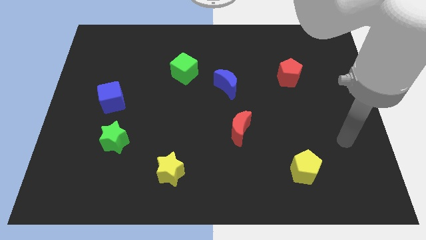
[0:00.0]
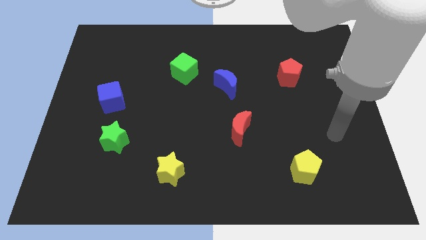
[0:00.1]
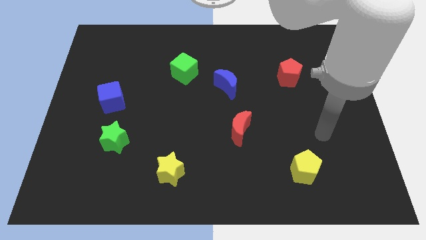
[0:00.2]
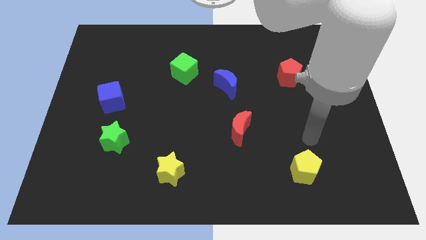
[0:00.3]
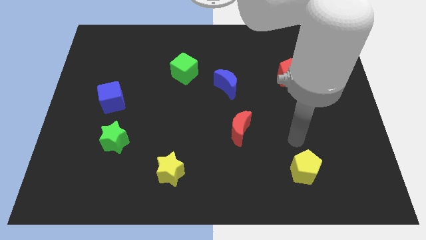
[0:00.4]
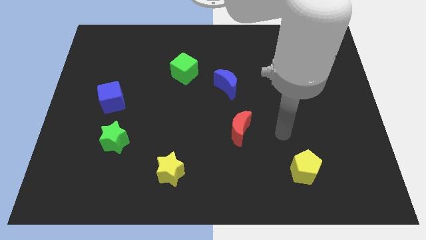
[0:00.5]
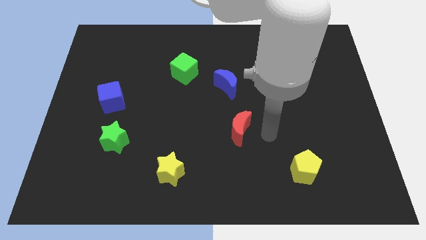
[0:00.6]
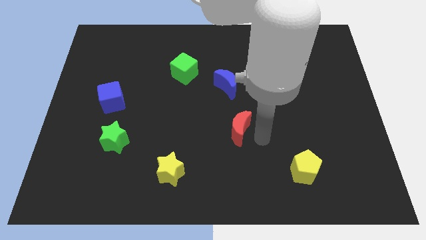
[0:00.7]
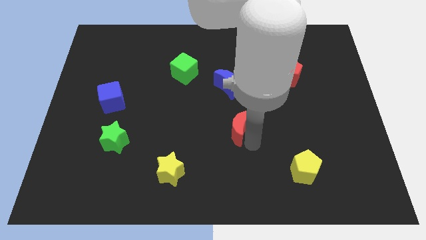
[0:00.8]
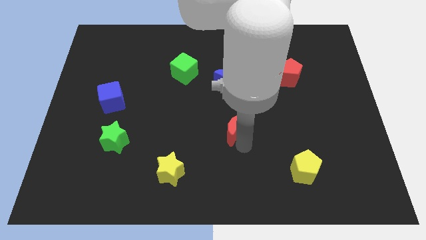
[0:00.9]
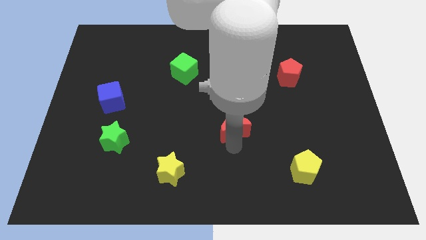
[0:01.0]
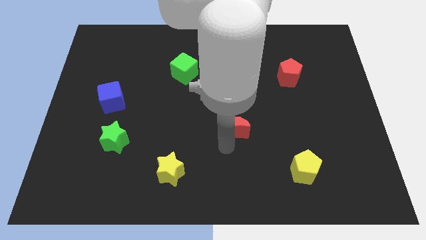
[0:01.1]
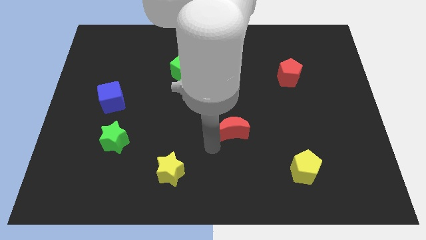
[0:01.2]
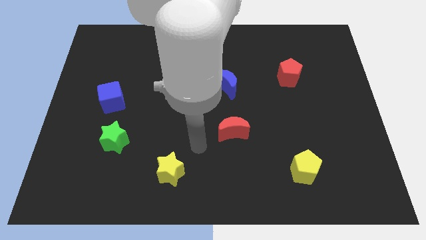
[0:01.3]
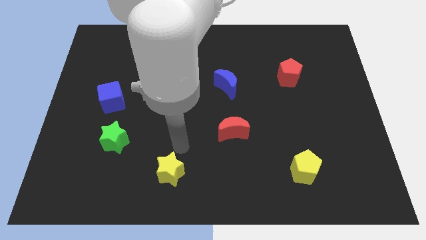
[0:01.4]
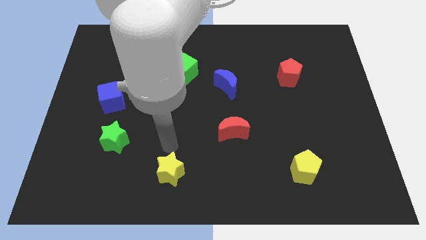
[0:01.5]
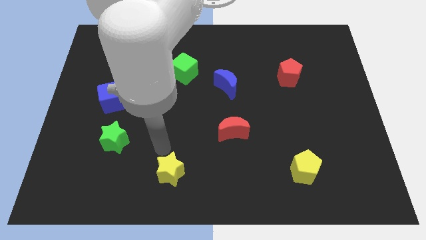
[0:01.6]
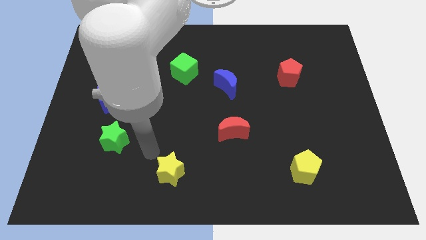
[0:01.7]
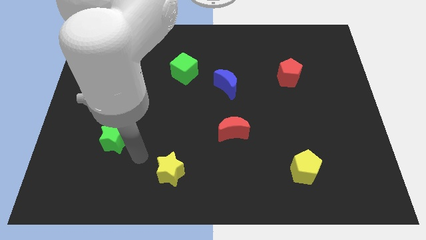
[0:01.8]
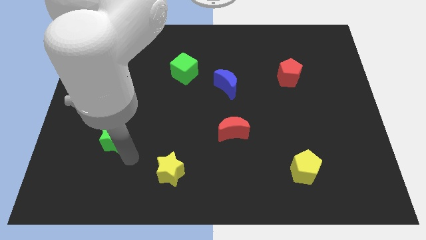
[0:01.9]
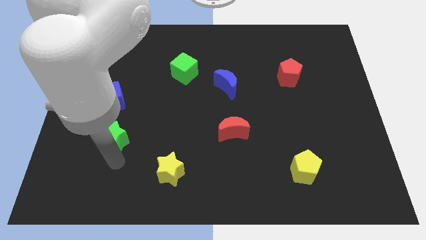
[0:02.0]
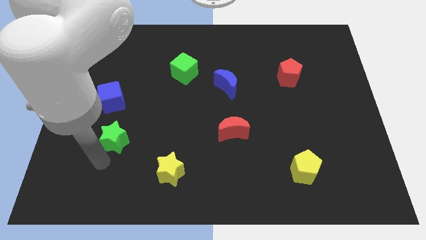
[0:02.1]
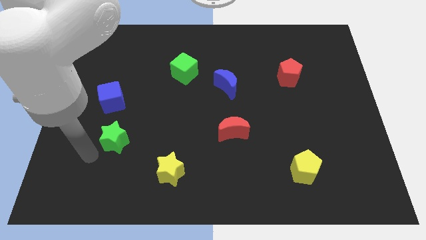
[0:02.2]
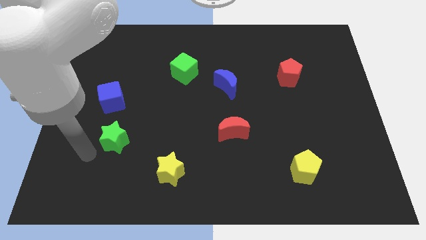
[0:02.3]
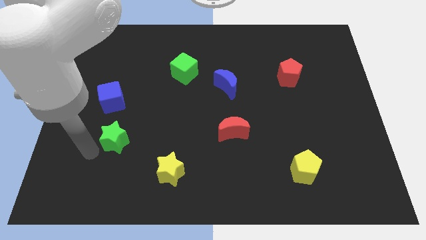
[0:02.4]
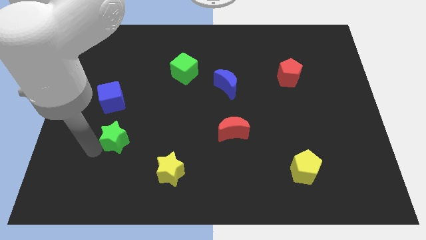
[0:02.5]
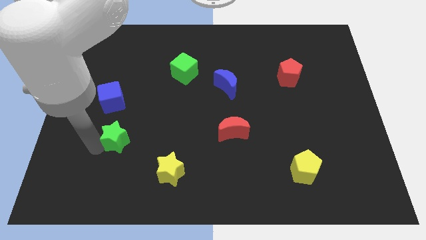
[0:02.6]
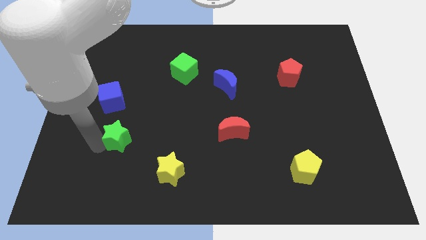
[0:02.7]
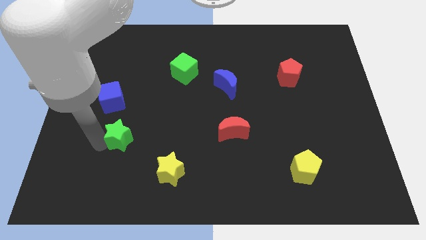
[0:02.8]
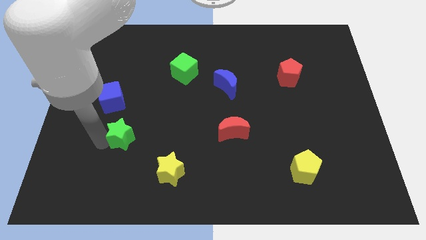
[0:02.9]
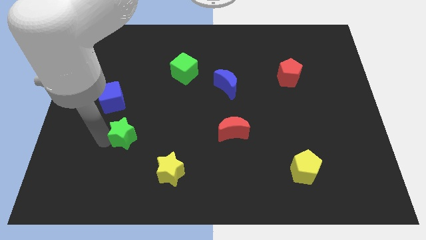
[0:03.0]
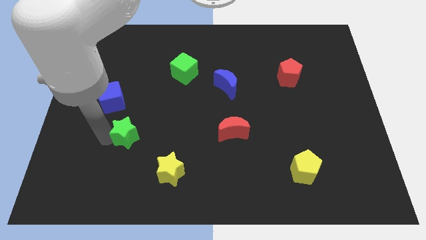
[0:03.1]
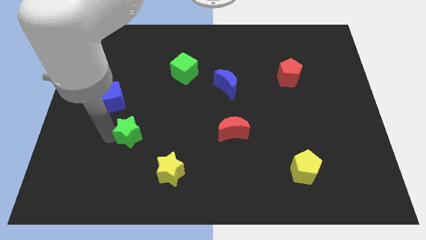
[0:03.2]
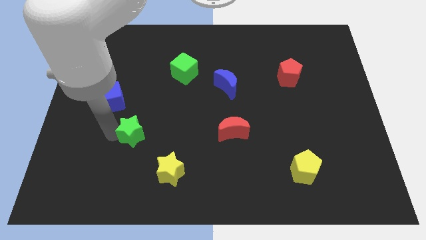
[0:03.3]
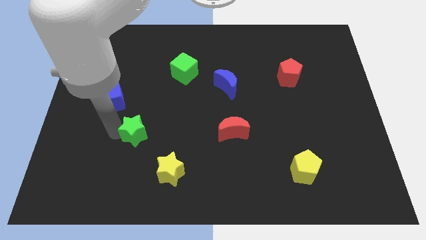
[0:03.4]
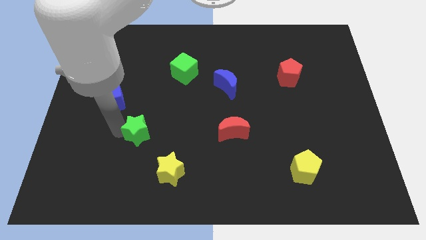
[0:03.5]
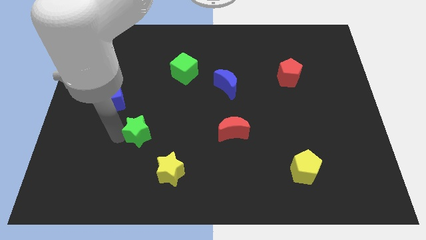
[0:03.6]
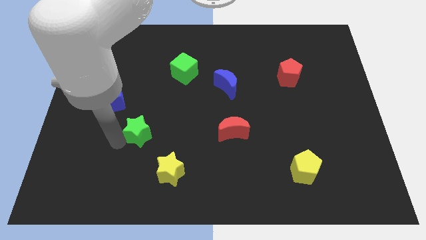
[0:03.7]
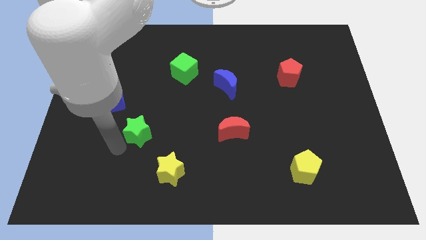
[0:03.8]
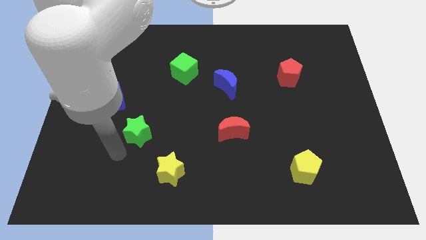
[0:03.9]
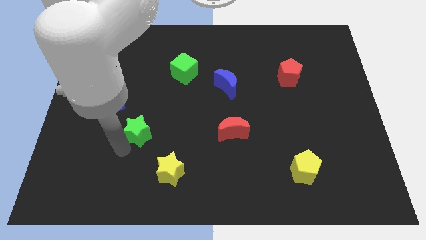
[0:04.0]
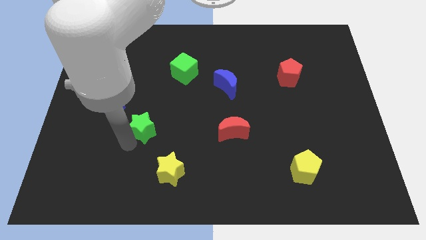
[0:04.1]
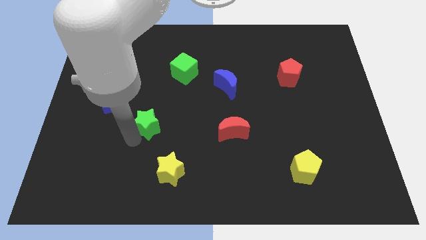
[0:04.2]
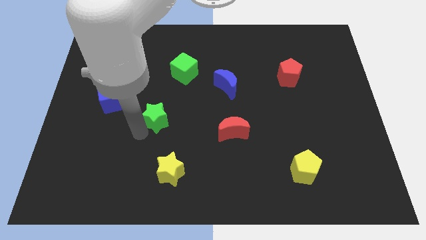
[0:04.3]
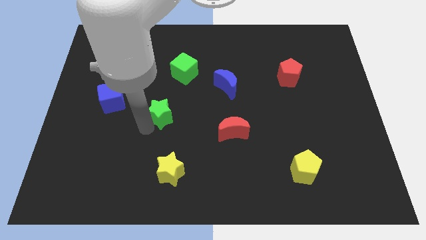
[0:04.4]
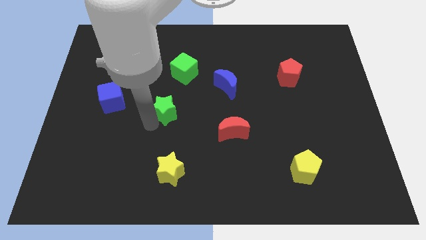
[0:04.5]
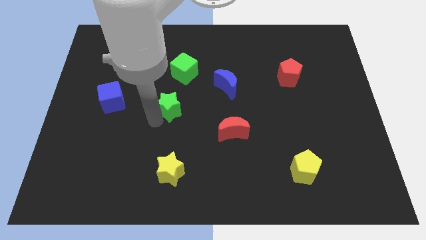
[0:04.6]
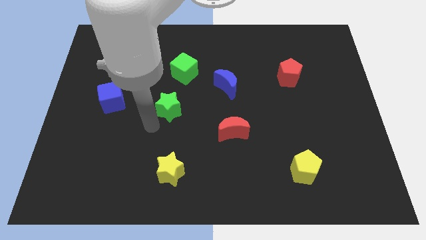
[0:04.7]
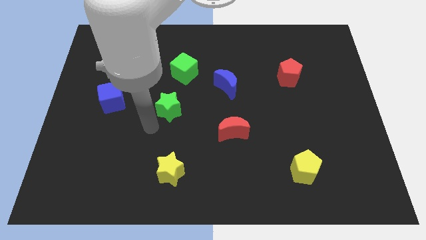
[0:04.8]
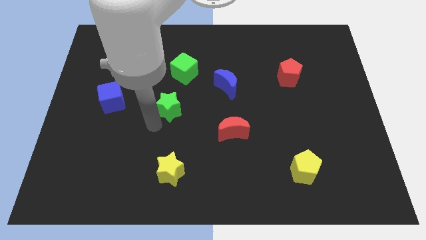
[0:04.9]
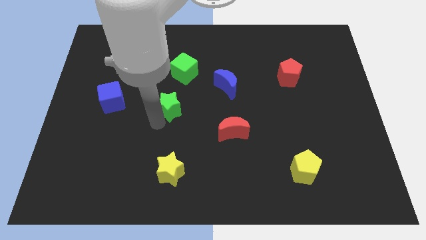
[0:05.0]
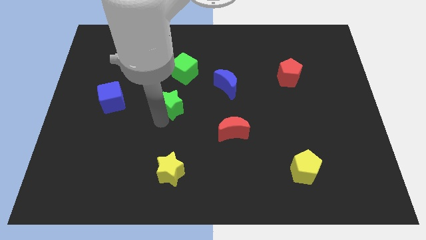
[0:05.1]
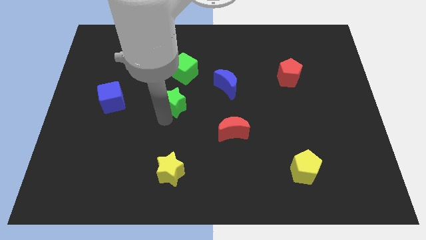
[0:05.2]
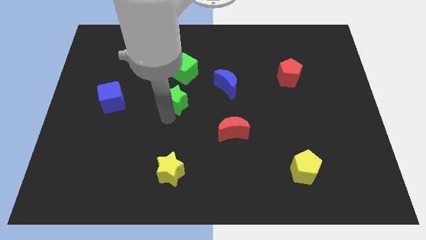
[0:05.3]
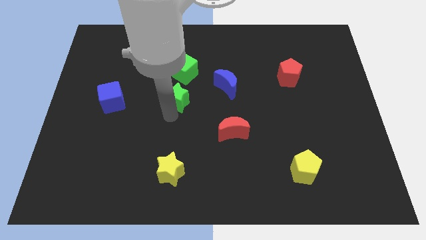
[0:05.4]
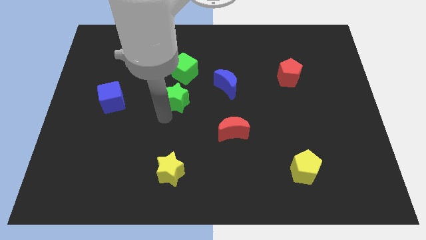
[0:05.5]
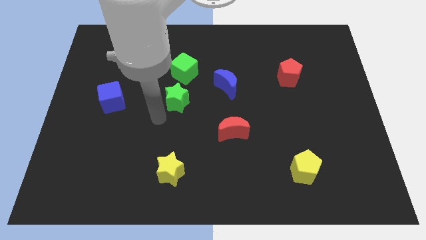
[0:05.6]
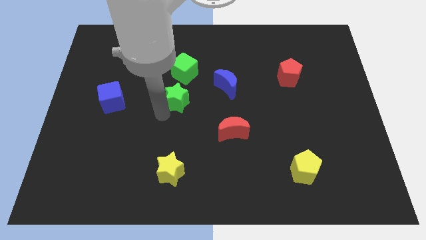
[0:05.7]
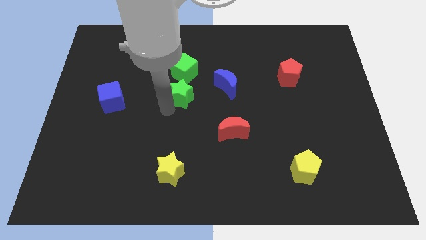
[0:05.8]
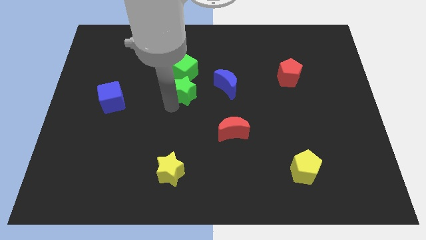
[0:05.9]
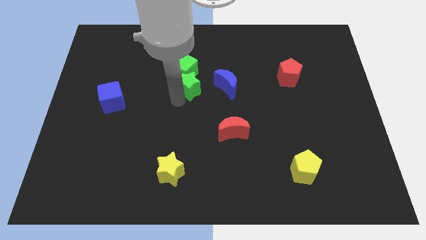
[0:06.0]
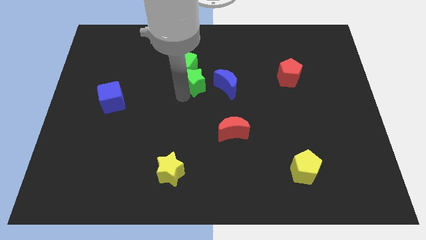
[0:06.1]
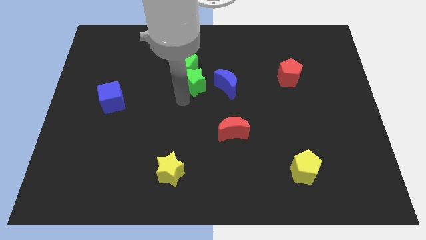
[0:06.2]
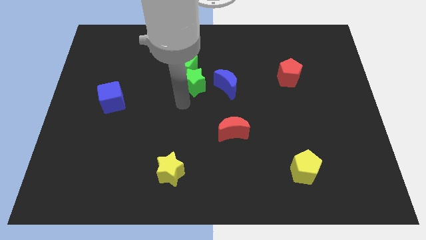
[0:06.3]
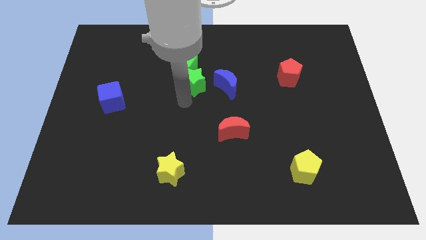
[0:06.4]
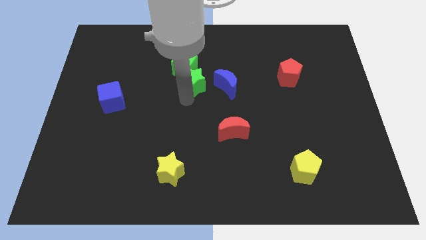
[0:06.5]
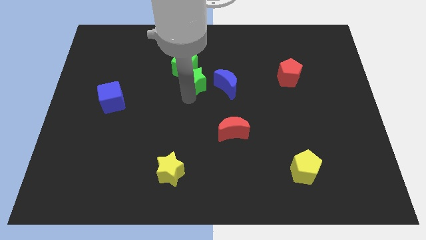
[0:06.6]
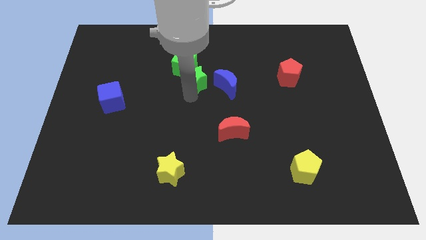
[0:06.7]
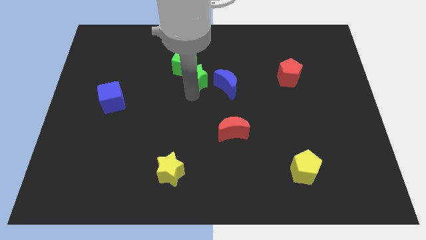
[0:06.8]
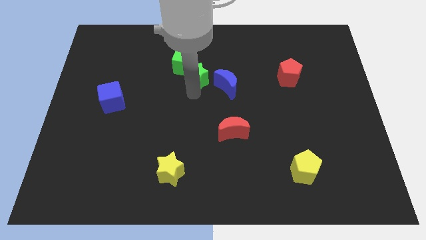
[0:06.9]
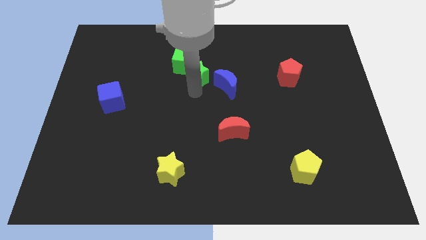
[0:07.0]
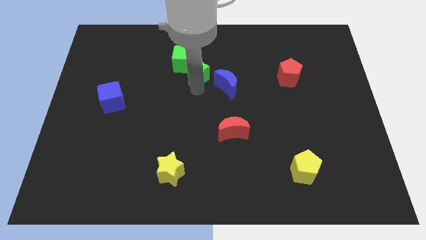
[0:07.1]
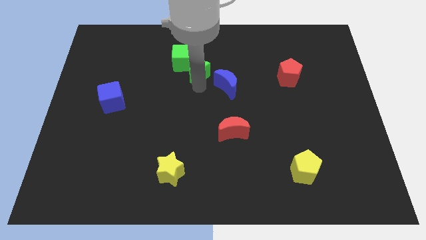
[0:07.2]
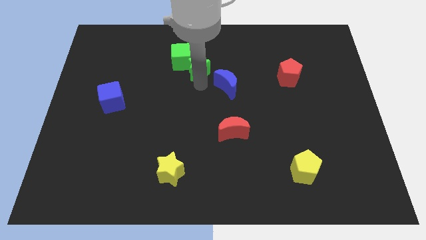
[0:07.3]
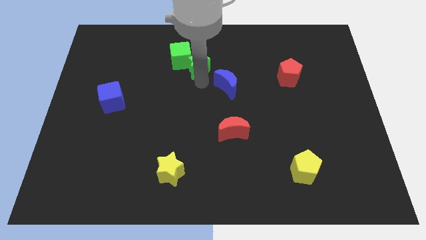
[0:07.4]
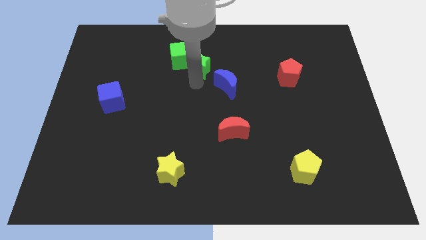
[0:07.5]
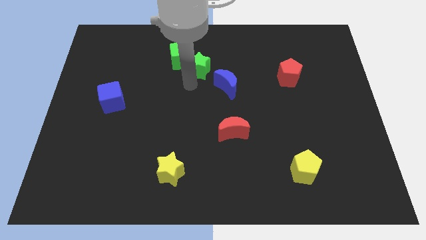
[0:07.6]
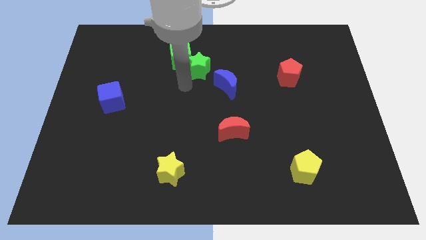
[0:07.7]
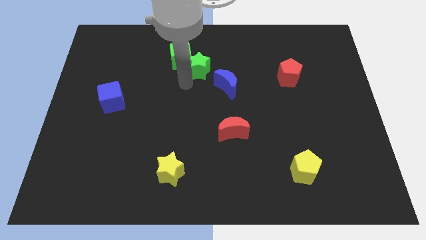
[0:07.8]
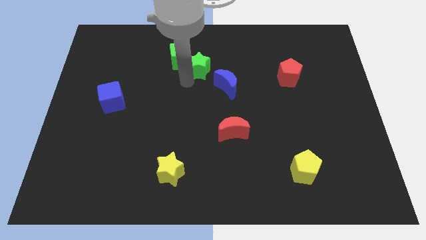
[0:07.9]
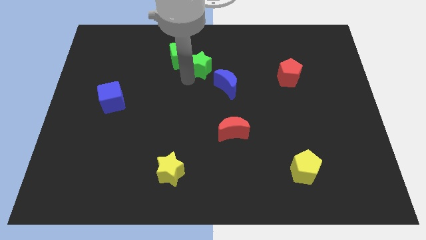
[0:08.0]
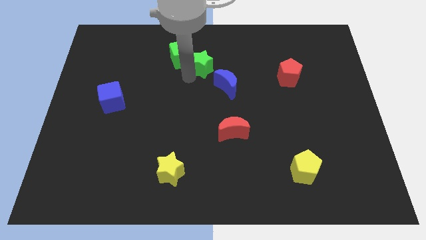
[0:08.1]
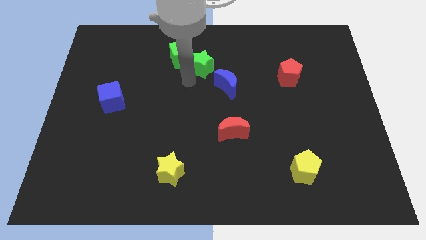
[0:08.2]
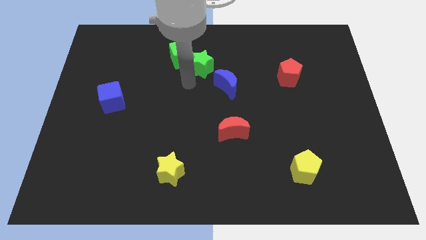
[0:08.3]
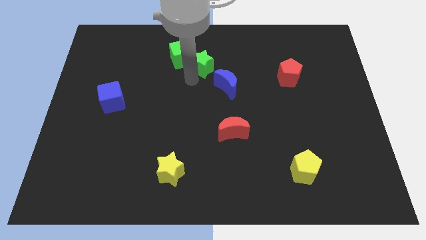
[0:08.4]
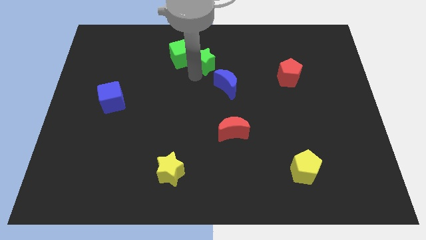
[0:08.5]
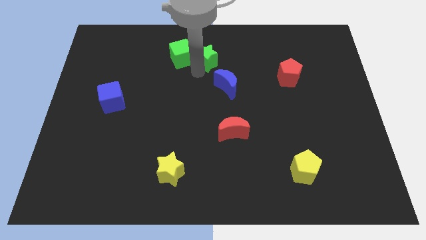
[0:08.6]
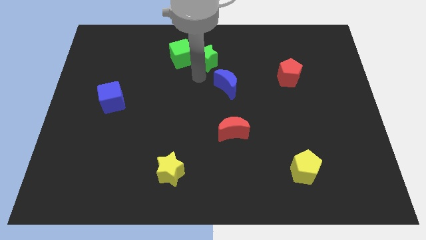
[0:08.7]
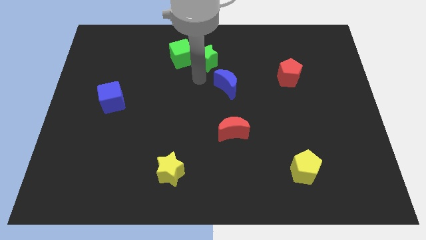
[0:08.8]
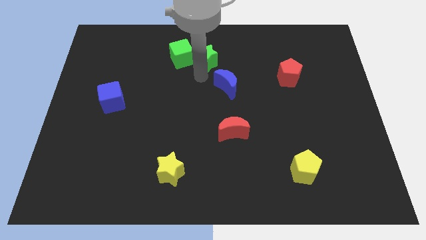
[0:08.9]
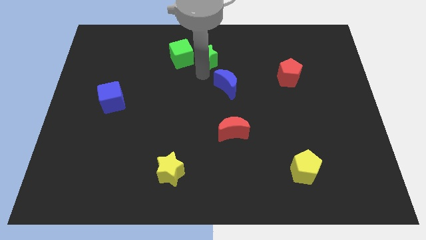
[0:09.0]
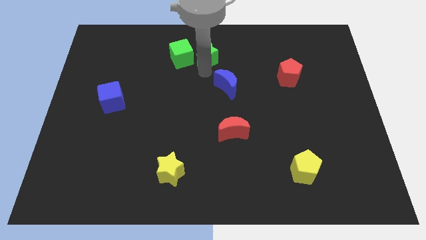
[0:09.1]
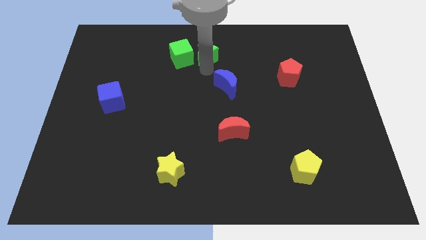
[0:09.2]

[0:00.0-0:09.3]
move the green star to the top side
